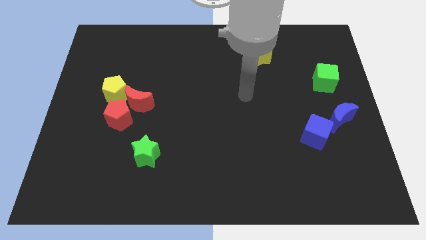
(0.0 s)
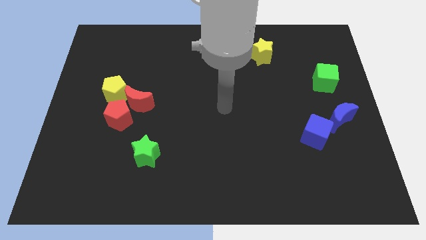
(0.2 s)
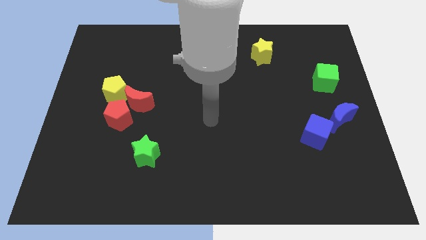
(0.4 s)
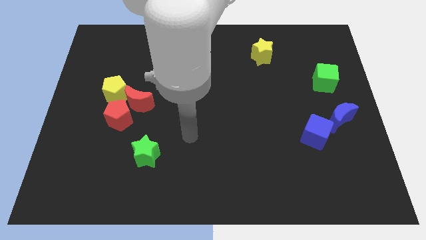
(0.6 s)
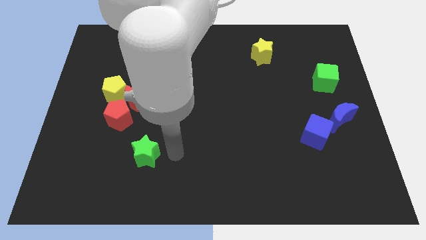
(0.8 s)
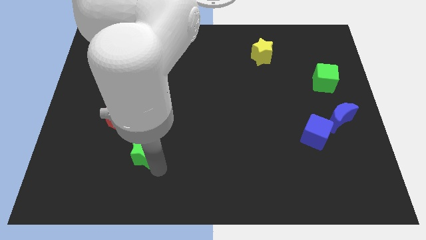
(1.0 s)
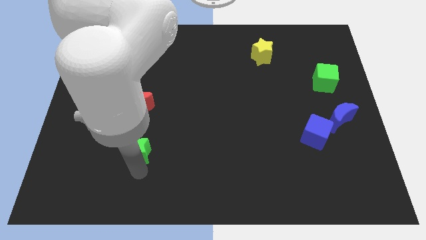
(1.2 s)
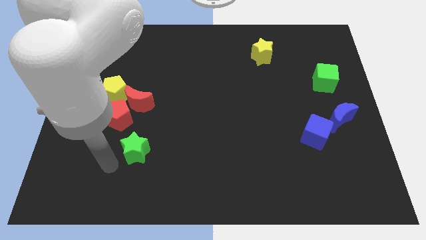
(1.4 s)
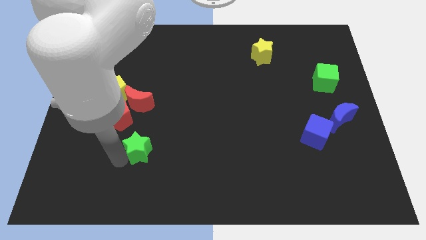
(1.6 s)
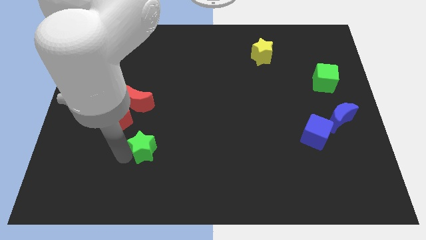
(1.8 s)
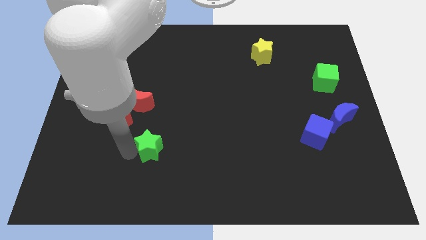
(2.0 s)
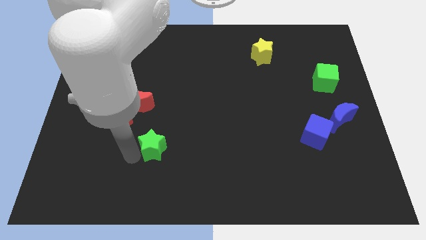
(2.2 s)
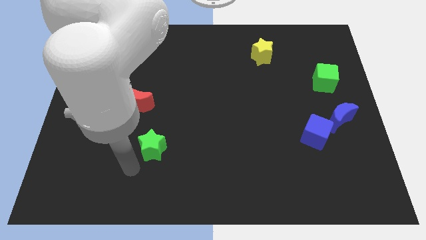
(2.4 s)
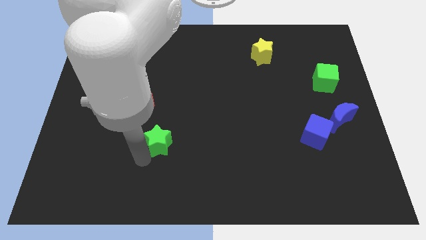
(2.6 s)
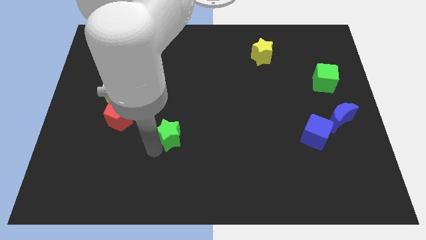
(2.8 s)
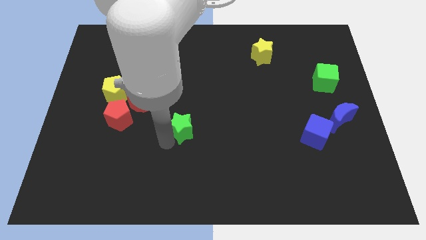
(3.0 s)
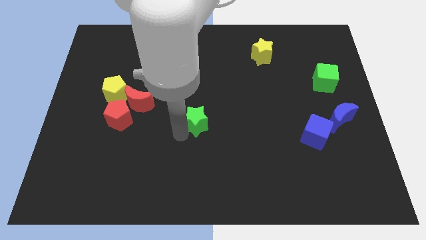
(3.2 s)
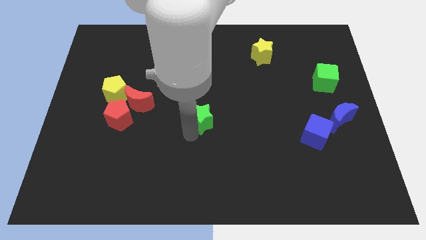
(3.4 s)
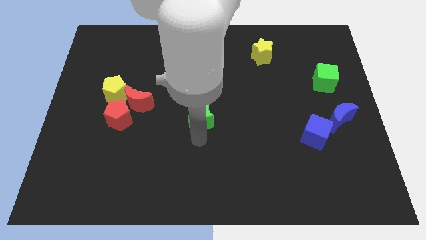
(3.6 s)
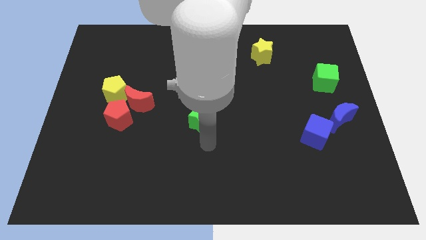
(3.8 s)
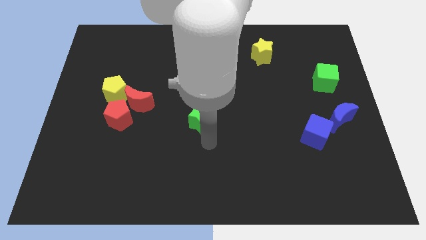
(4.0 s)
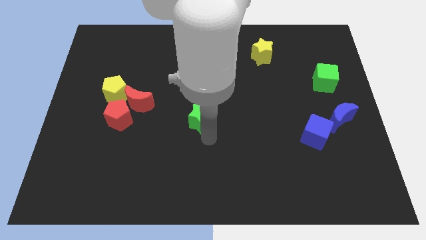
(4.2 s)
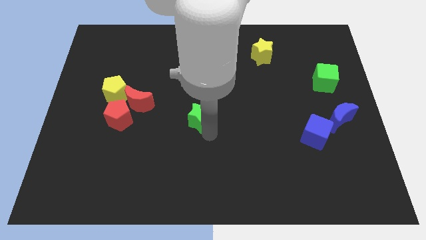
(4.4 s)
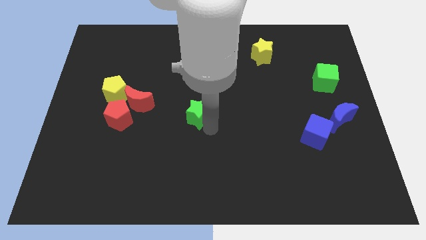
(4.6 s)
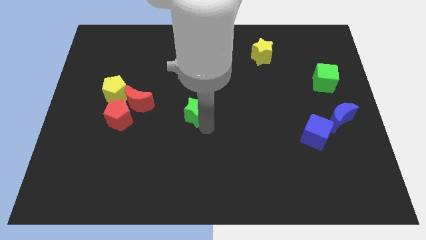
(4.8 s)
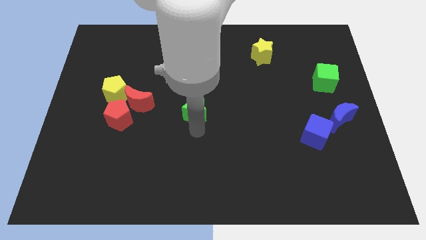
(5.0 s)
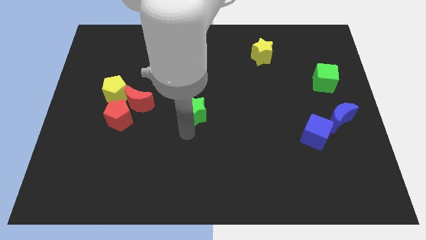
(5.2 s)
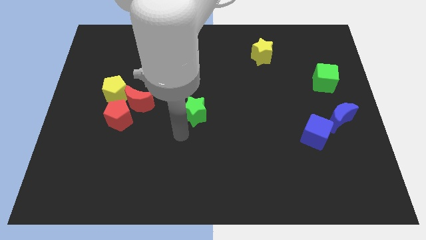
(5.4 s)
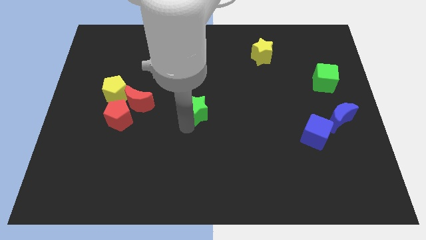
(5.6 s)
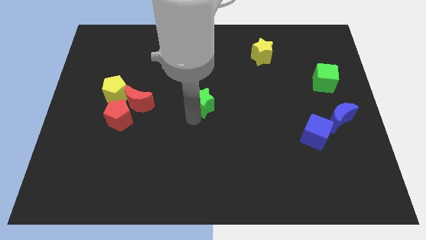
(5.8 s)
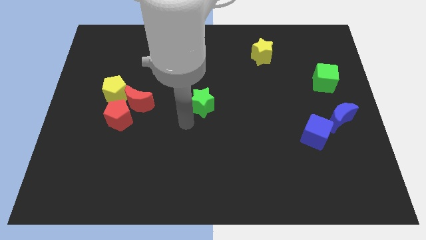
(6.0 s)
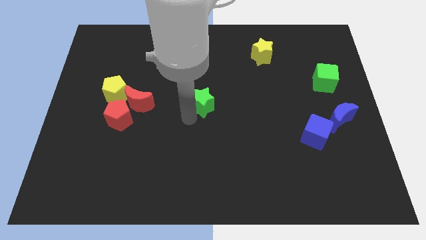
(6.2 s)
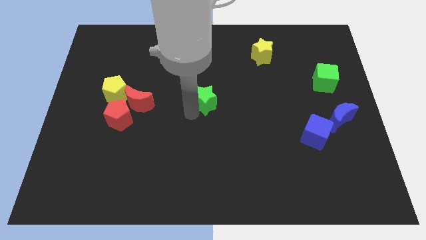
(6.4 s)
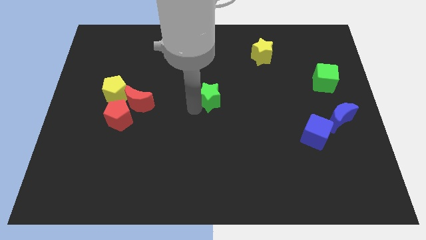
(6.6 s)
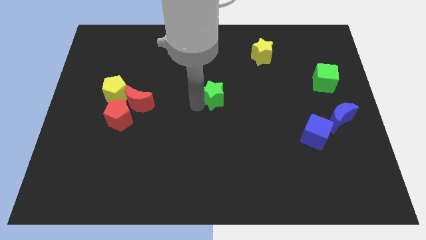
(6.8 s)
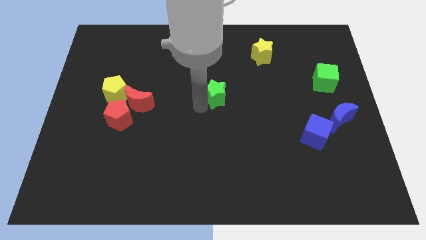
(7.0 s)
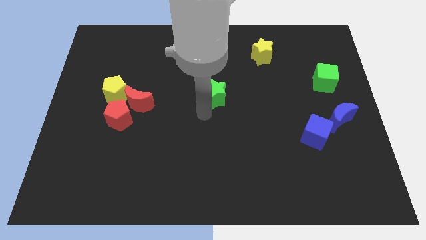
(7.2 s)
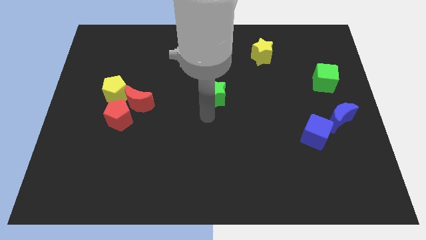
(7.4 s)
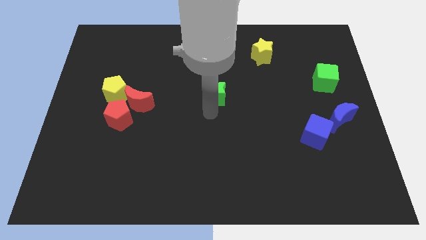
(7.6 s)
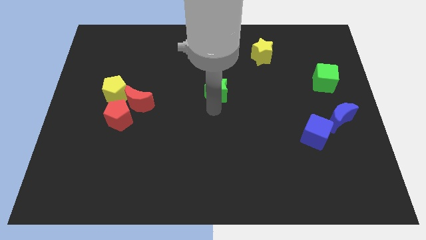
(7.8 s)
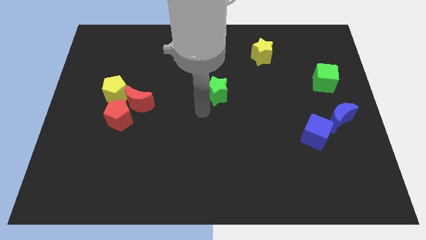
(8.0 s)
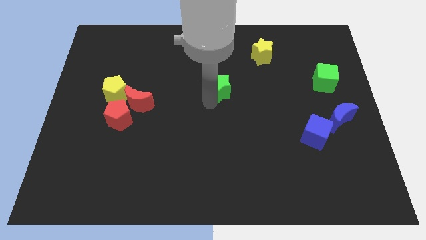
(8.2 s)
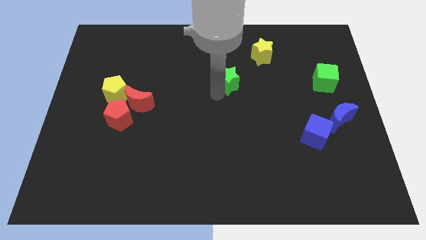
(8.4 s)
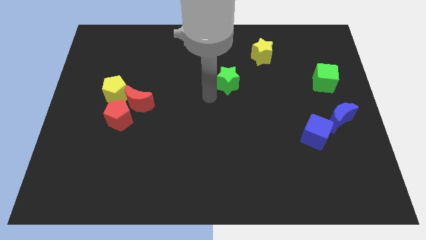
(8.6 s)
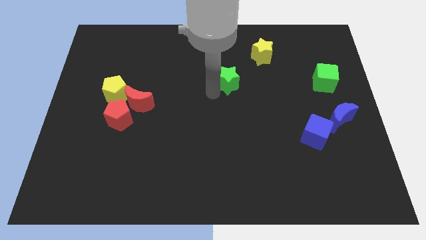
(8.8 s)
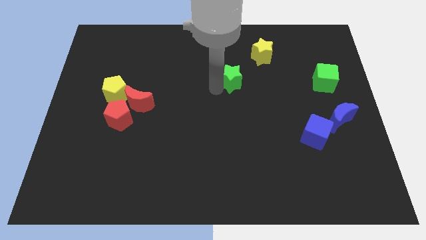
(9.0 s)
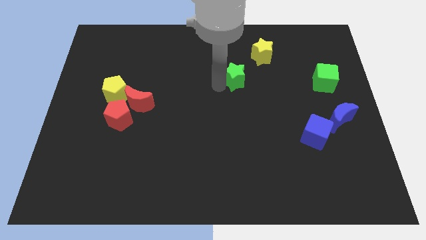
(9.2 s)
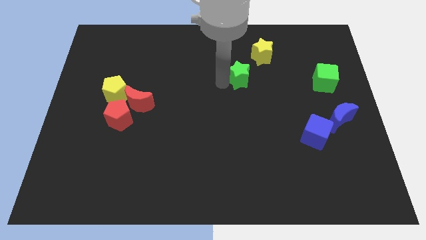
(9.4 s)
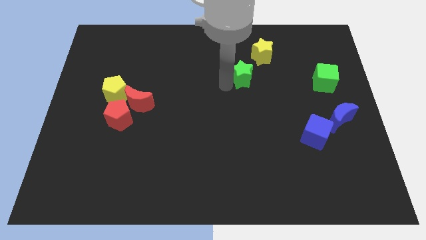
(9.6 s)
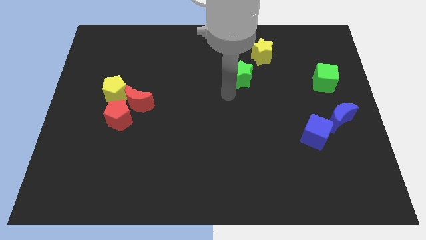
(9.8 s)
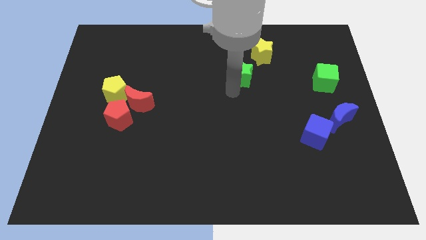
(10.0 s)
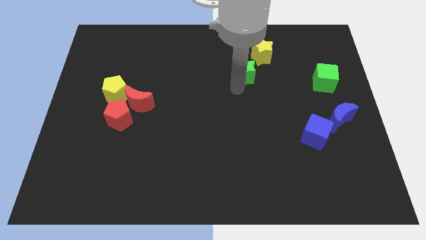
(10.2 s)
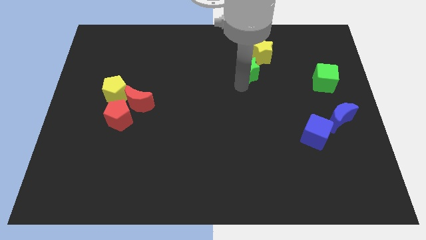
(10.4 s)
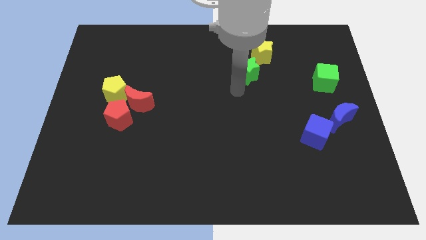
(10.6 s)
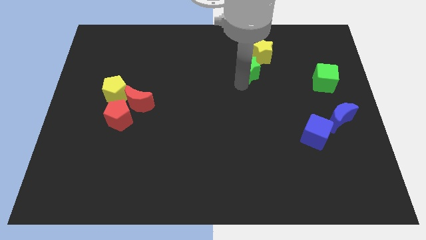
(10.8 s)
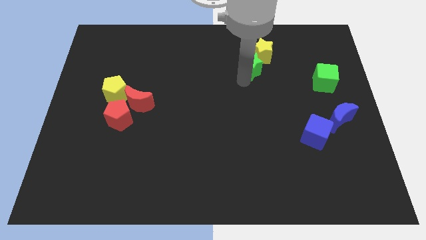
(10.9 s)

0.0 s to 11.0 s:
put the green star close to the yellow star

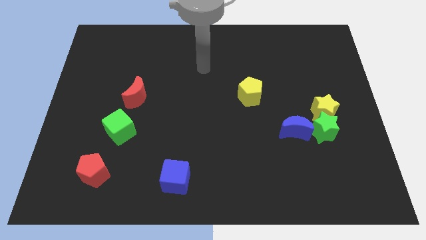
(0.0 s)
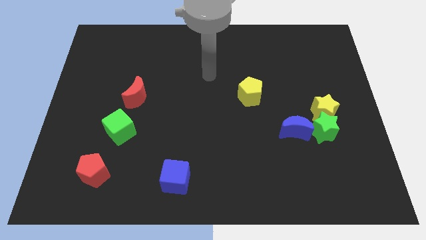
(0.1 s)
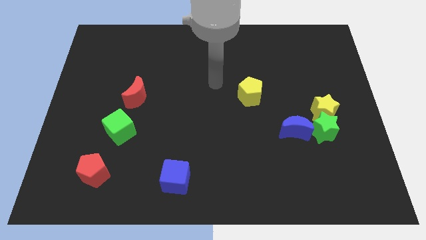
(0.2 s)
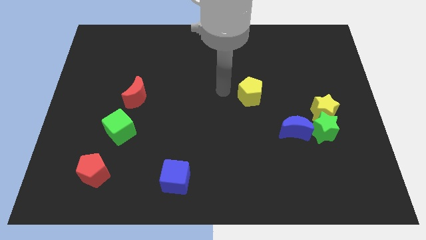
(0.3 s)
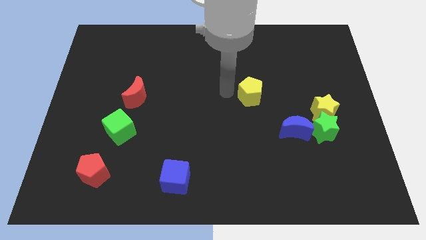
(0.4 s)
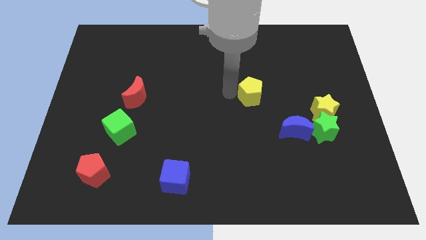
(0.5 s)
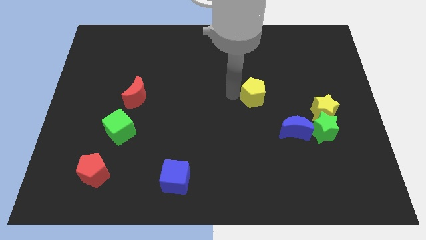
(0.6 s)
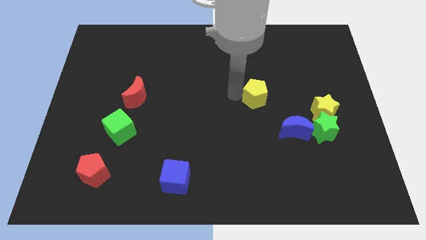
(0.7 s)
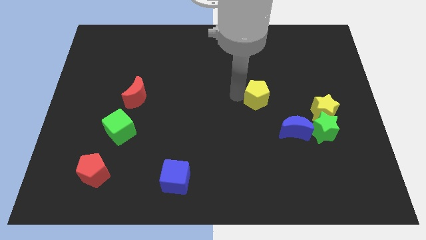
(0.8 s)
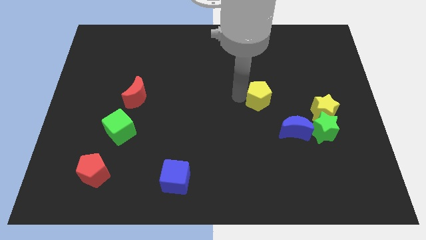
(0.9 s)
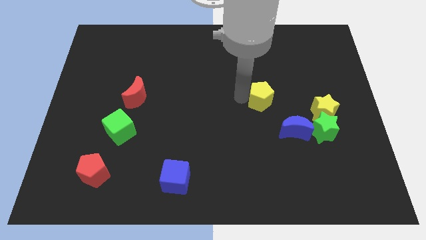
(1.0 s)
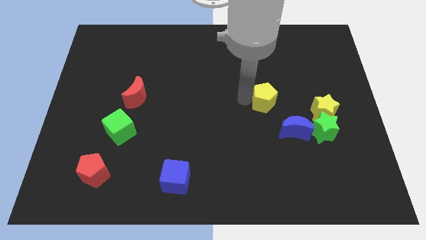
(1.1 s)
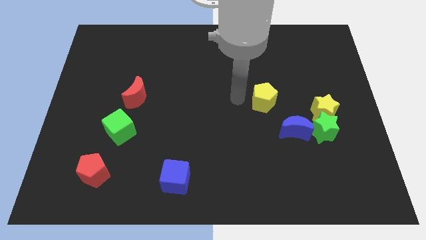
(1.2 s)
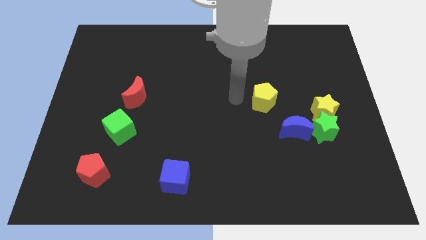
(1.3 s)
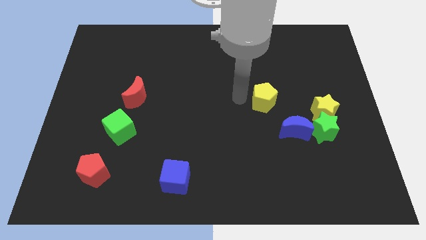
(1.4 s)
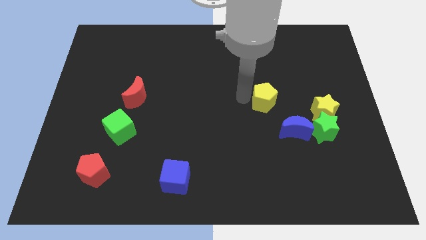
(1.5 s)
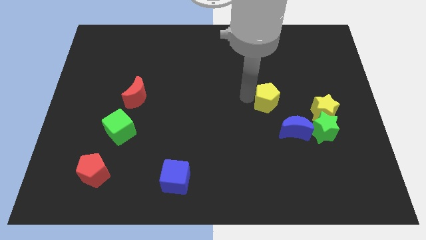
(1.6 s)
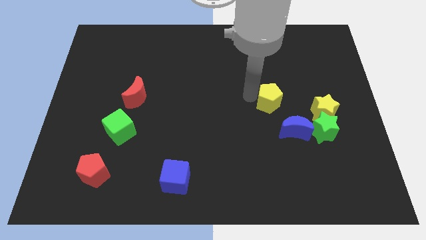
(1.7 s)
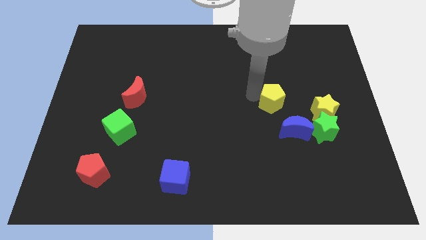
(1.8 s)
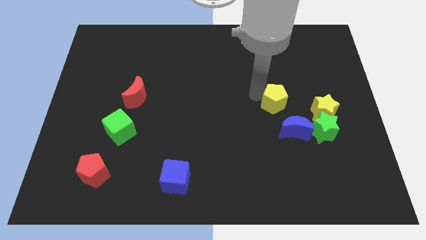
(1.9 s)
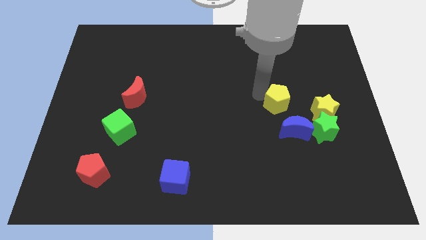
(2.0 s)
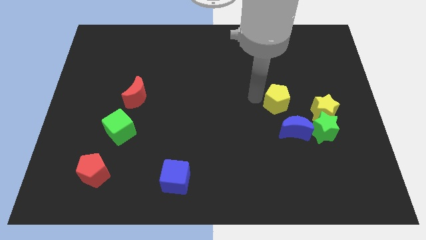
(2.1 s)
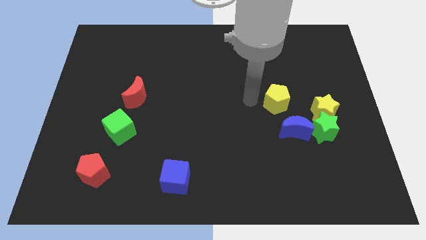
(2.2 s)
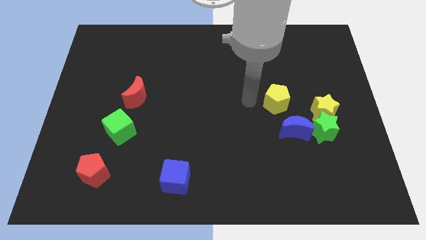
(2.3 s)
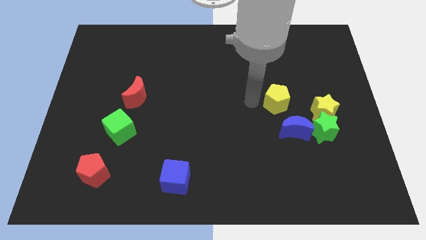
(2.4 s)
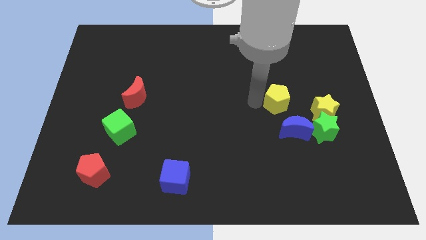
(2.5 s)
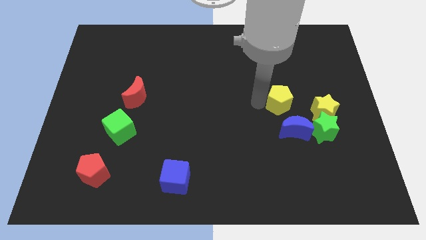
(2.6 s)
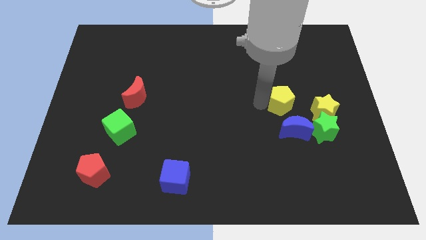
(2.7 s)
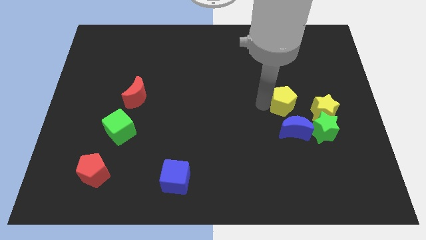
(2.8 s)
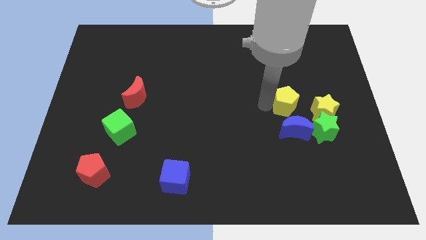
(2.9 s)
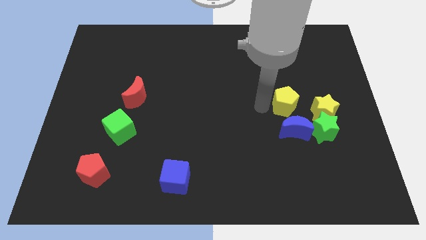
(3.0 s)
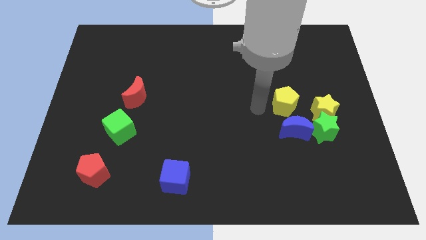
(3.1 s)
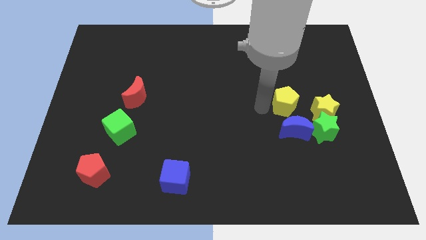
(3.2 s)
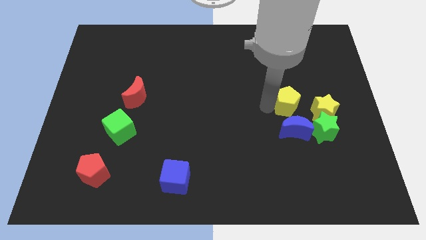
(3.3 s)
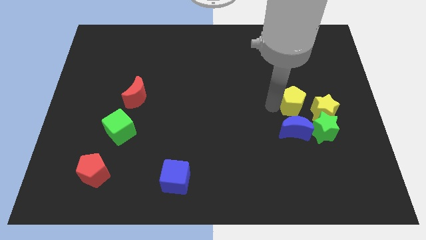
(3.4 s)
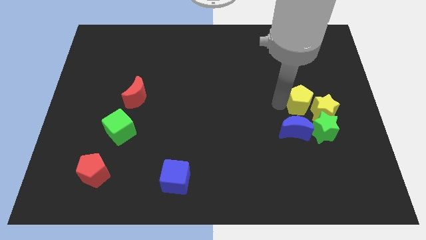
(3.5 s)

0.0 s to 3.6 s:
put the yellow pentagon to the yellow star
